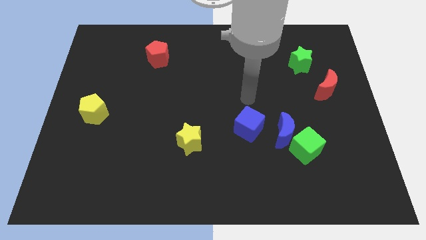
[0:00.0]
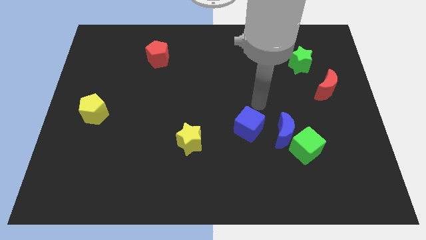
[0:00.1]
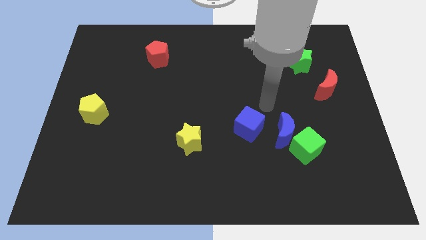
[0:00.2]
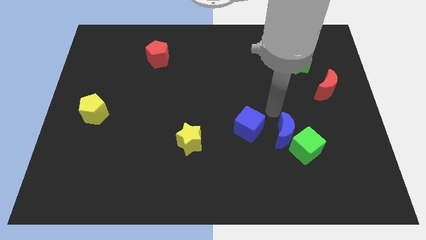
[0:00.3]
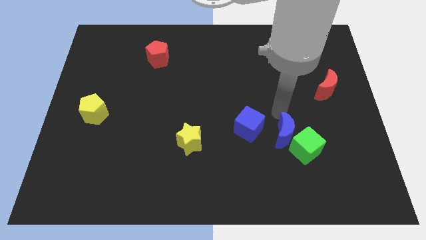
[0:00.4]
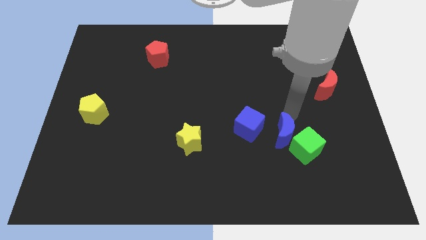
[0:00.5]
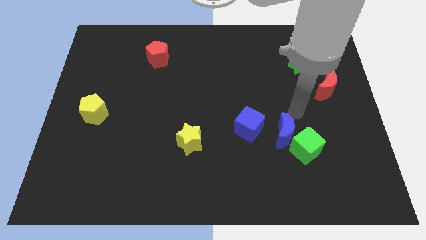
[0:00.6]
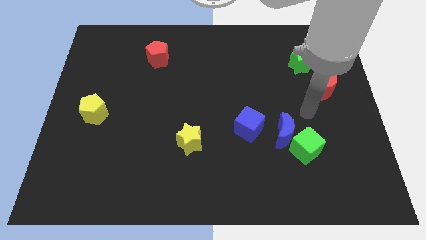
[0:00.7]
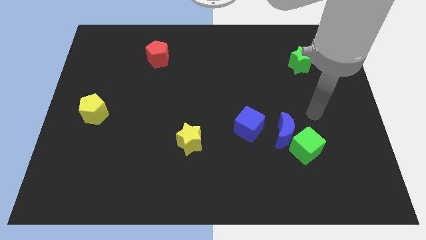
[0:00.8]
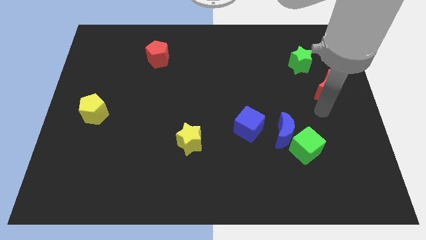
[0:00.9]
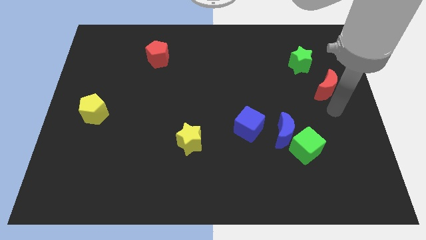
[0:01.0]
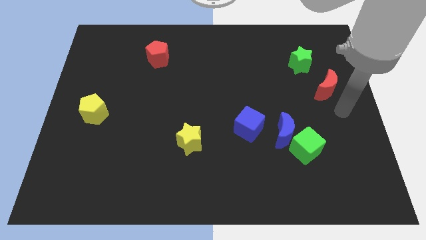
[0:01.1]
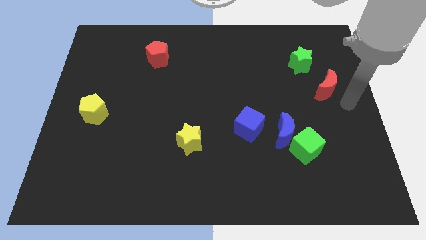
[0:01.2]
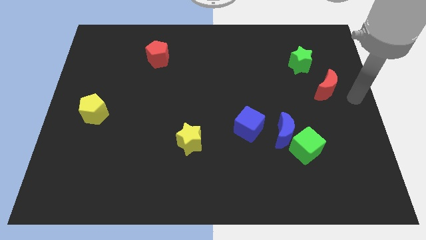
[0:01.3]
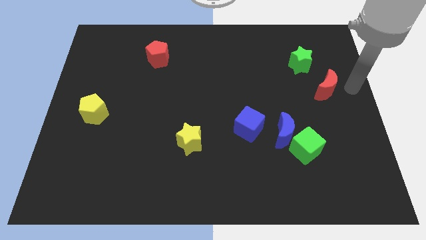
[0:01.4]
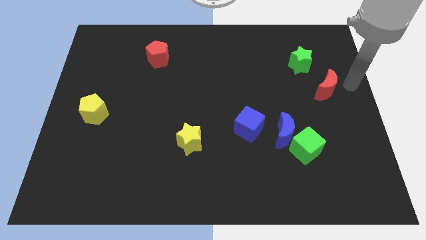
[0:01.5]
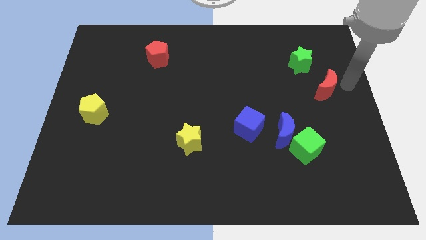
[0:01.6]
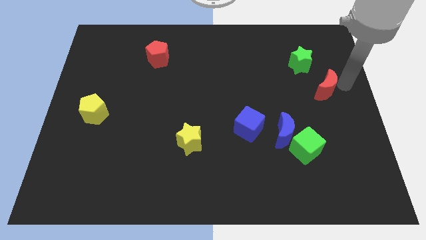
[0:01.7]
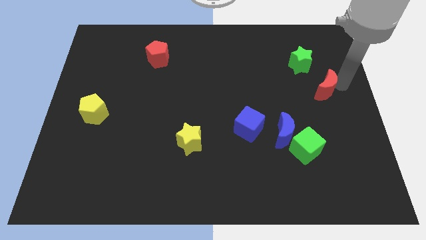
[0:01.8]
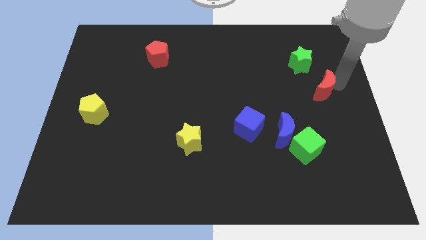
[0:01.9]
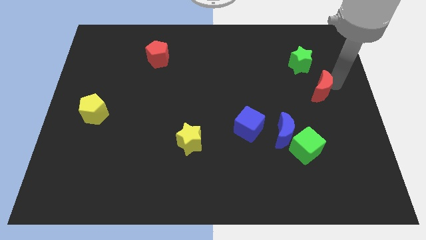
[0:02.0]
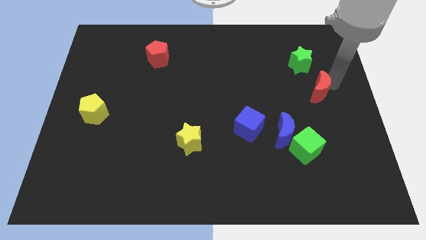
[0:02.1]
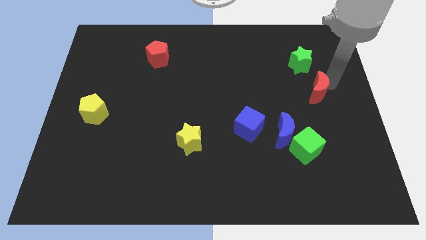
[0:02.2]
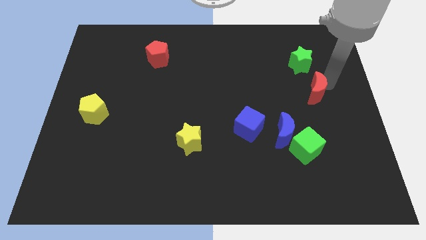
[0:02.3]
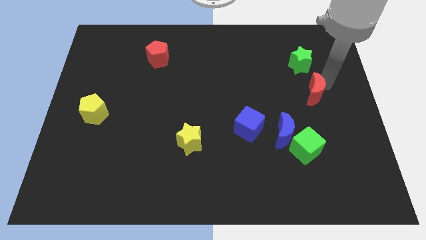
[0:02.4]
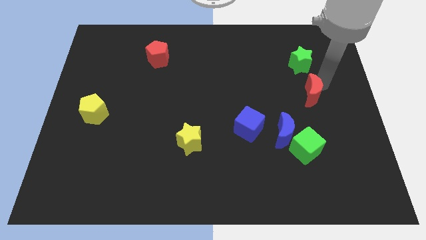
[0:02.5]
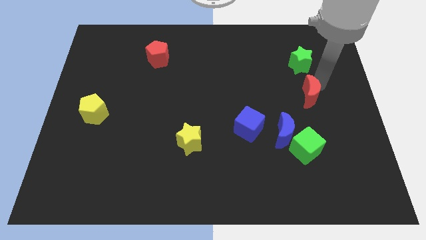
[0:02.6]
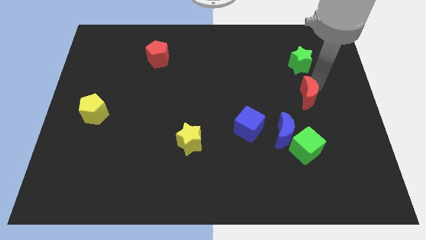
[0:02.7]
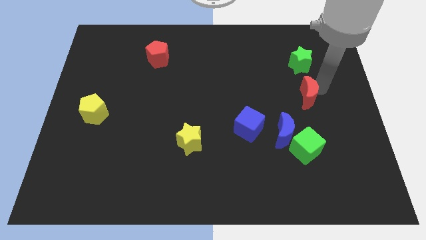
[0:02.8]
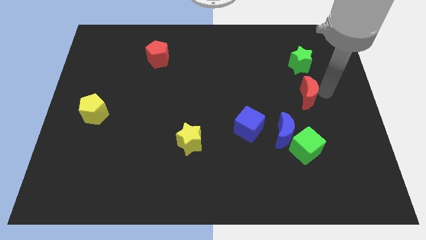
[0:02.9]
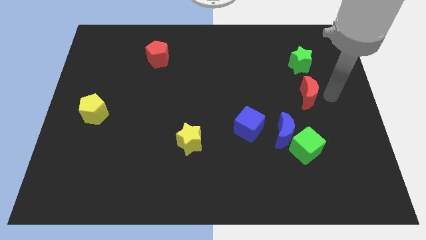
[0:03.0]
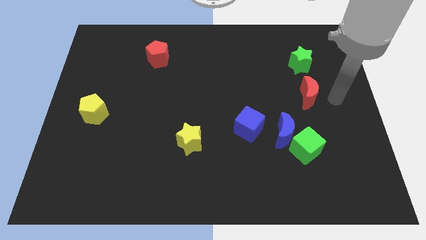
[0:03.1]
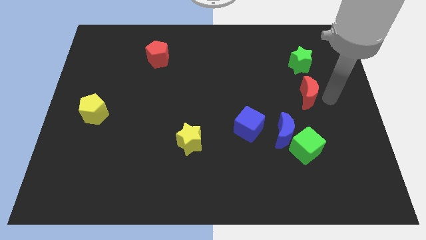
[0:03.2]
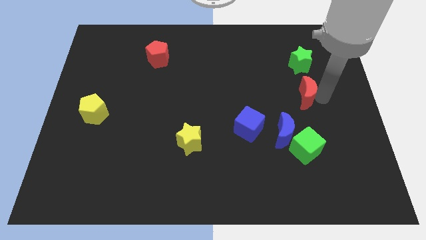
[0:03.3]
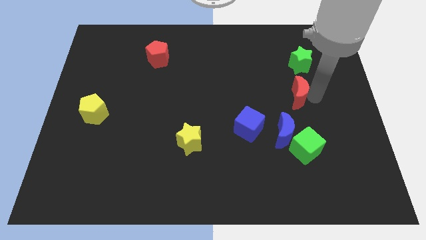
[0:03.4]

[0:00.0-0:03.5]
move the red moon a little to the left

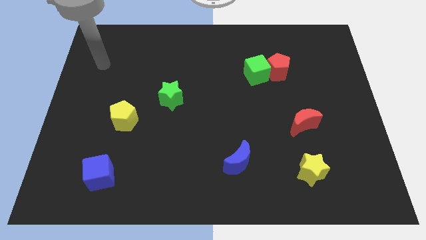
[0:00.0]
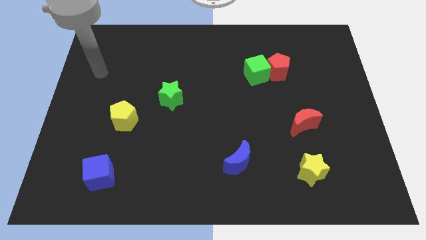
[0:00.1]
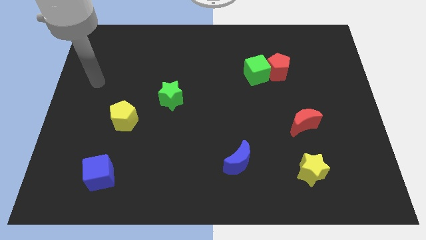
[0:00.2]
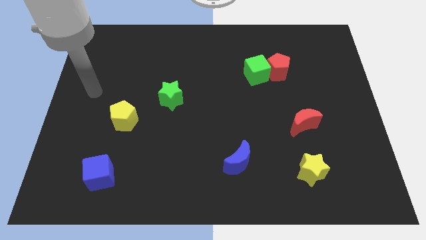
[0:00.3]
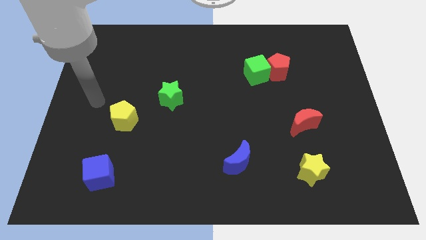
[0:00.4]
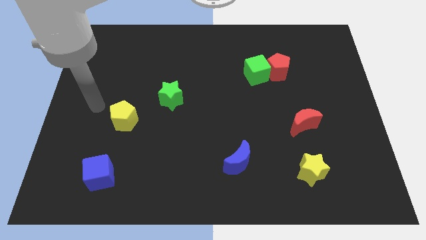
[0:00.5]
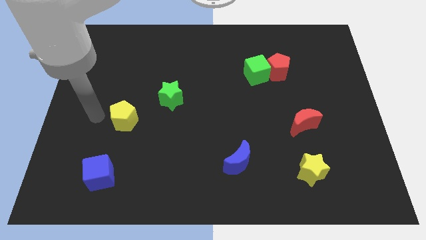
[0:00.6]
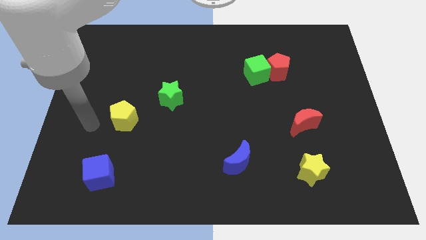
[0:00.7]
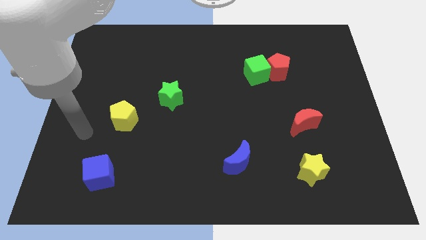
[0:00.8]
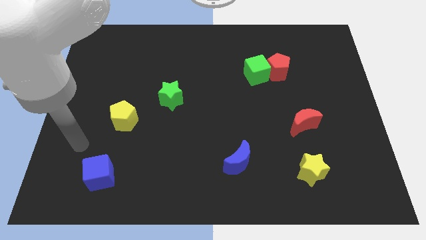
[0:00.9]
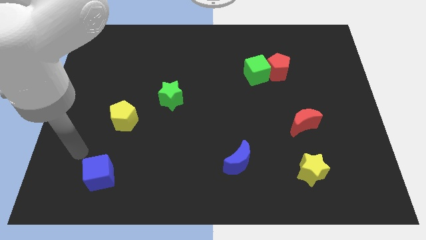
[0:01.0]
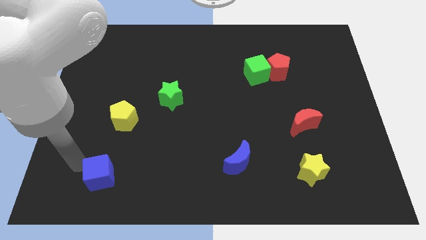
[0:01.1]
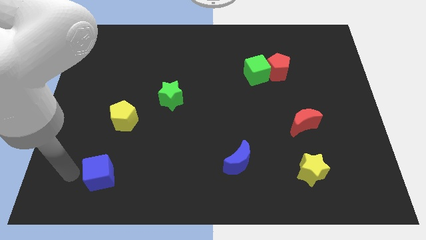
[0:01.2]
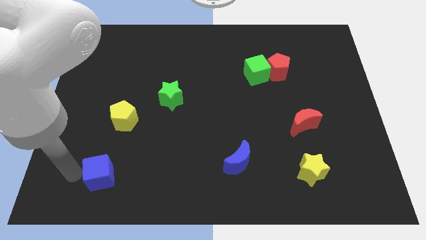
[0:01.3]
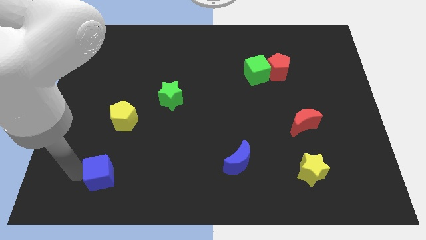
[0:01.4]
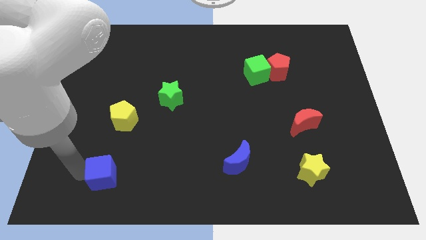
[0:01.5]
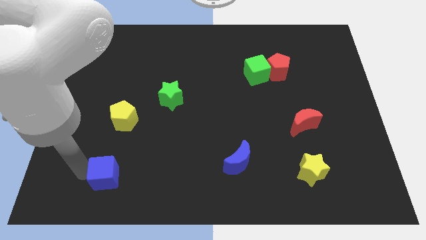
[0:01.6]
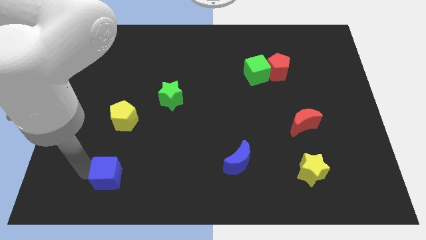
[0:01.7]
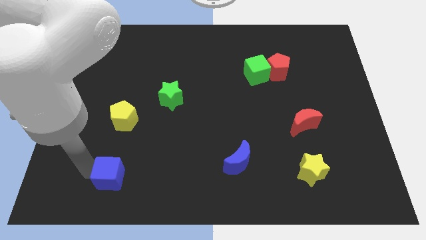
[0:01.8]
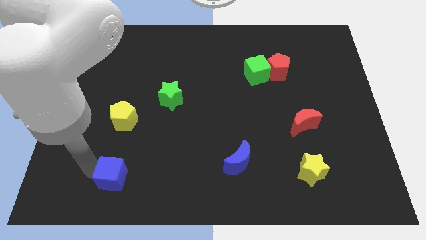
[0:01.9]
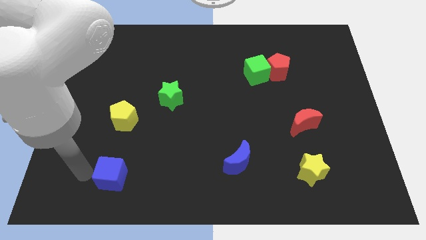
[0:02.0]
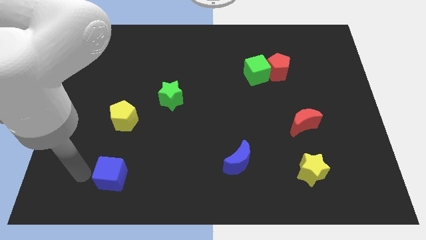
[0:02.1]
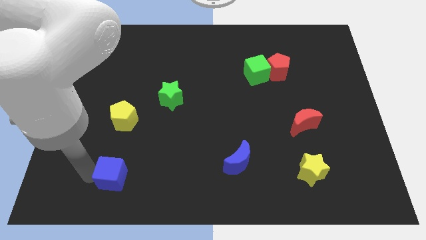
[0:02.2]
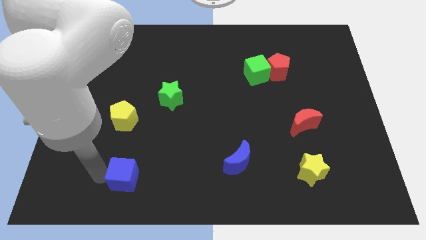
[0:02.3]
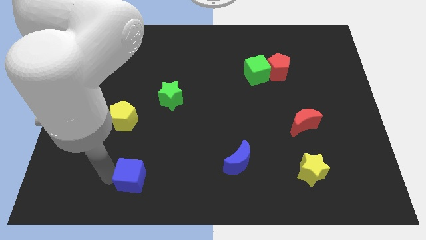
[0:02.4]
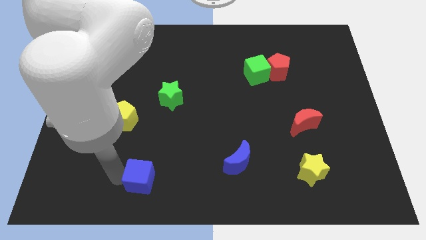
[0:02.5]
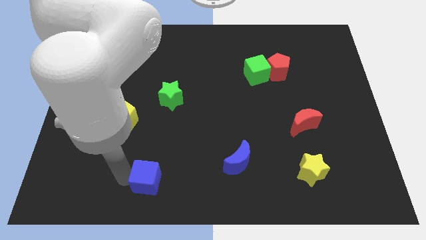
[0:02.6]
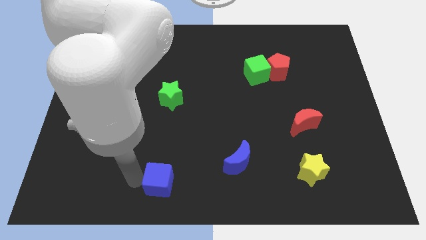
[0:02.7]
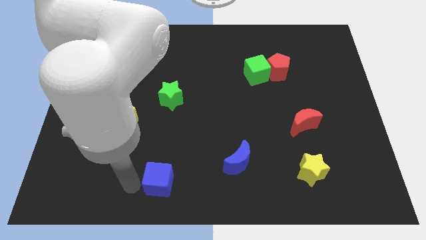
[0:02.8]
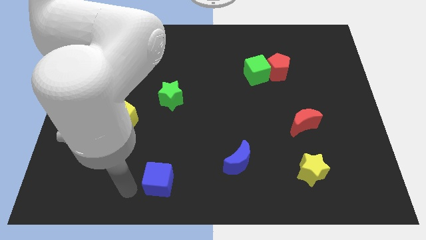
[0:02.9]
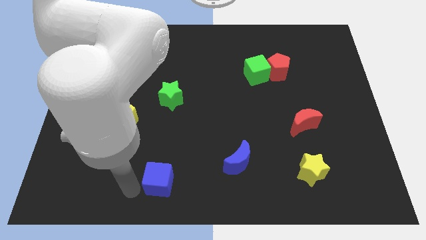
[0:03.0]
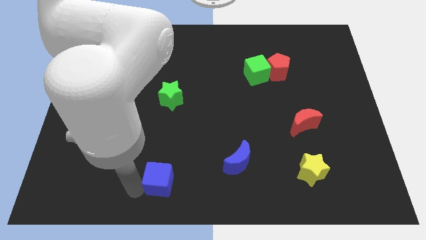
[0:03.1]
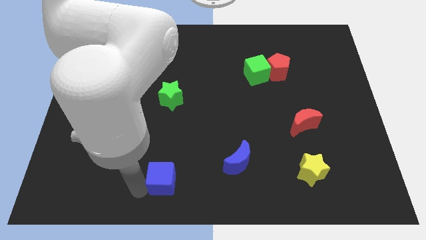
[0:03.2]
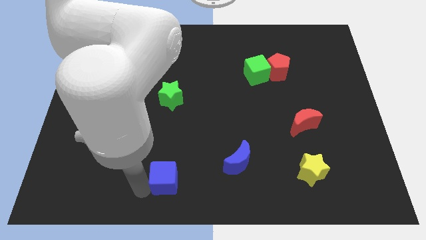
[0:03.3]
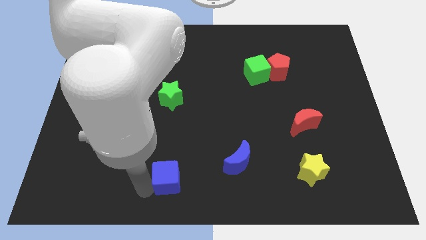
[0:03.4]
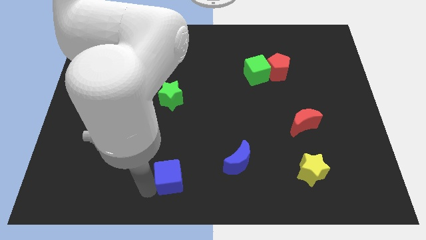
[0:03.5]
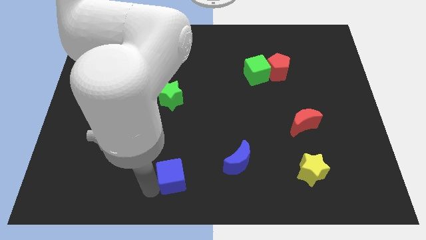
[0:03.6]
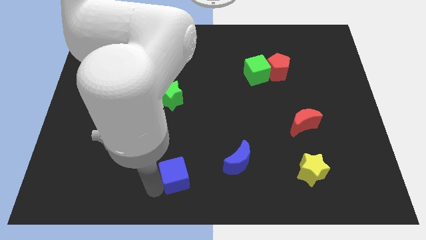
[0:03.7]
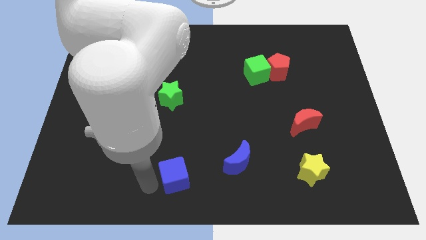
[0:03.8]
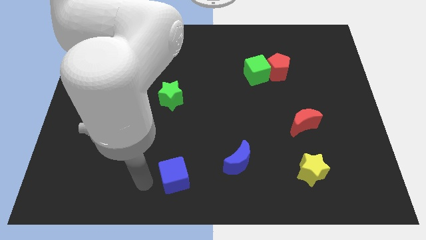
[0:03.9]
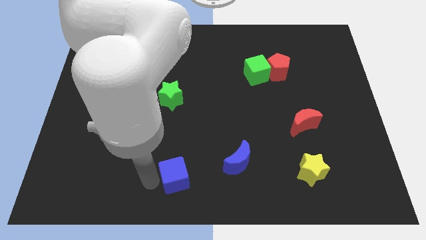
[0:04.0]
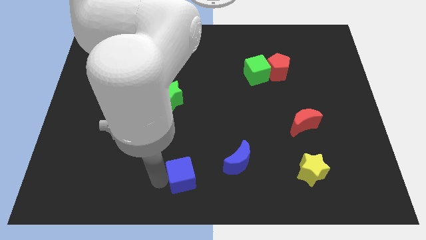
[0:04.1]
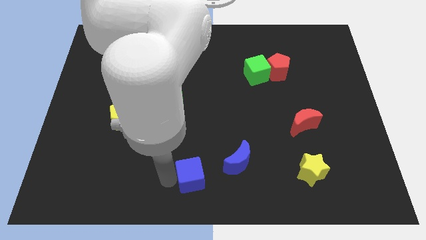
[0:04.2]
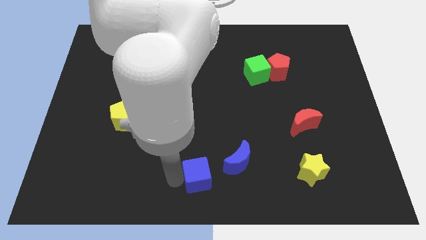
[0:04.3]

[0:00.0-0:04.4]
slide the blue cube right

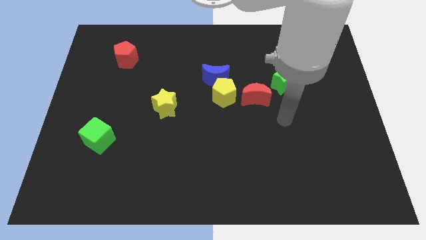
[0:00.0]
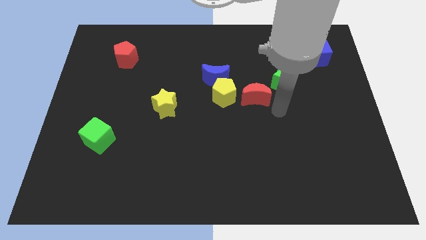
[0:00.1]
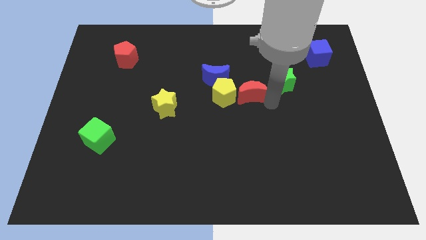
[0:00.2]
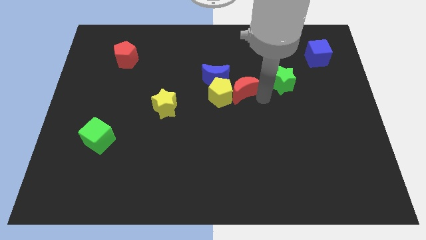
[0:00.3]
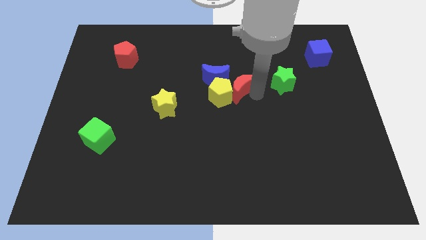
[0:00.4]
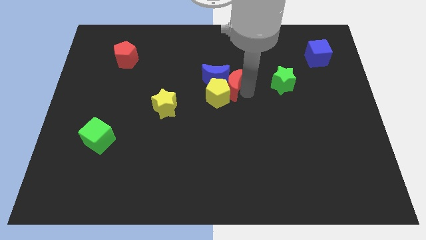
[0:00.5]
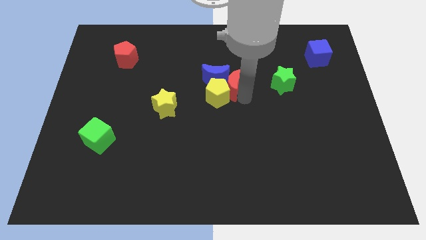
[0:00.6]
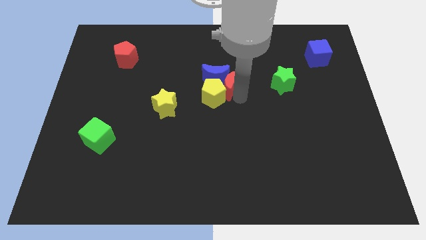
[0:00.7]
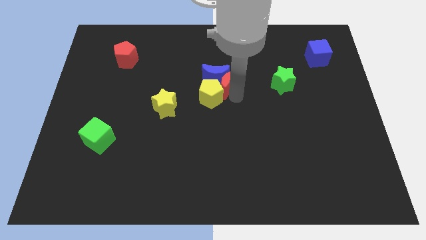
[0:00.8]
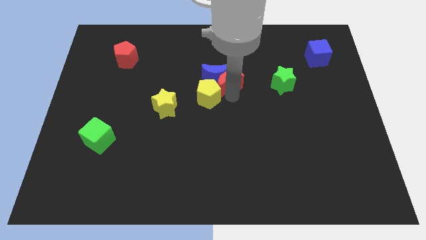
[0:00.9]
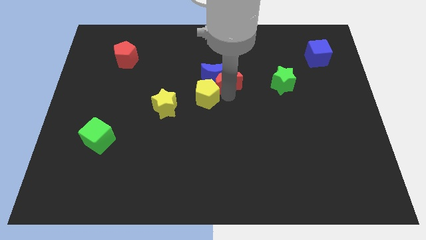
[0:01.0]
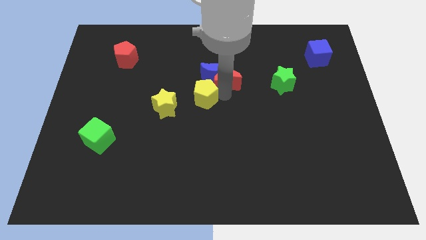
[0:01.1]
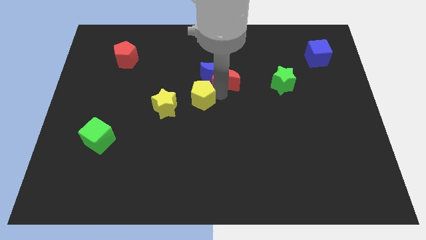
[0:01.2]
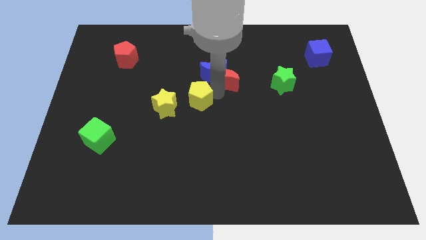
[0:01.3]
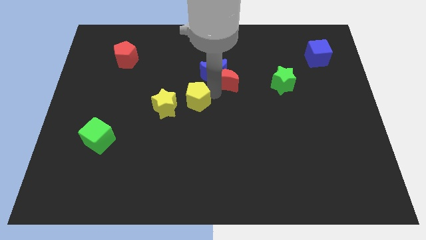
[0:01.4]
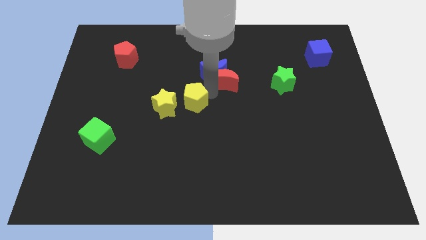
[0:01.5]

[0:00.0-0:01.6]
slightly push the yellow pentagon to the left
